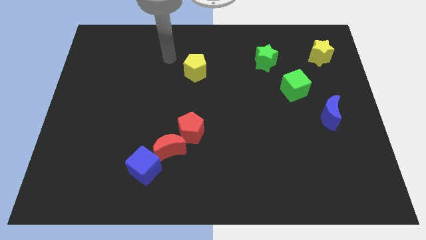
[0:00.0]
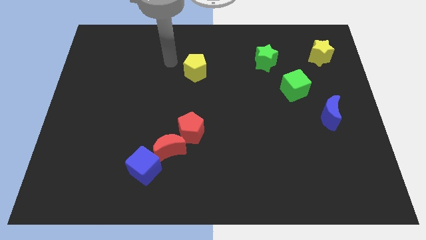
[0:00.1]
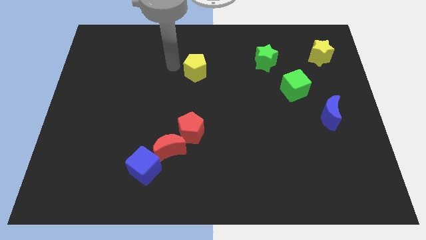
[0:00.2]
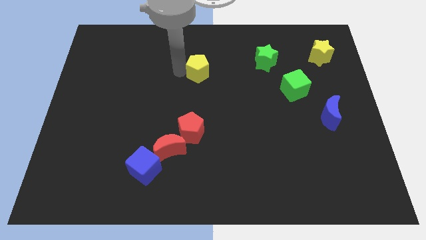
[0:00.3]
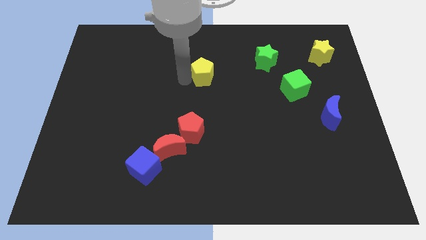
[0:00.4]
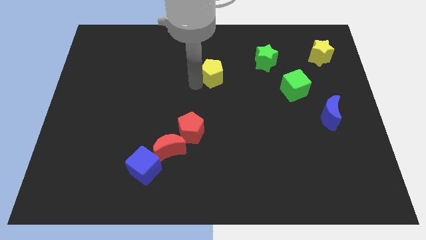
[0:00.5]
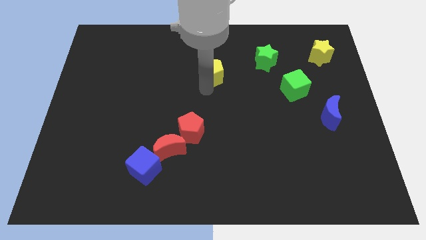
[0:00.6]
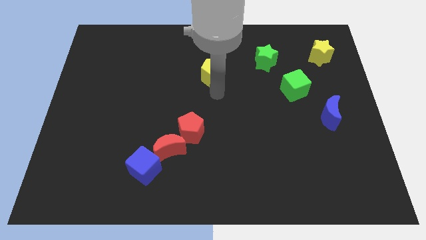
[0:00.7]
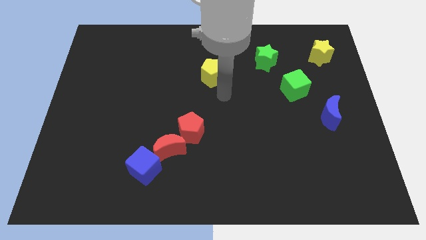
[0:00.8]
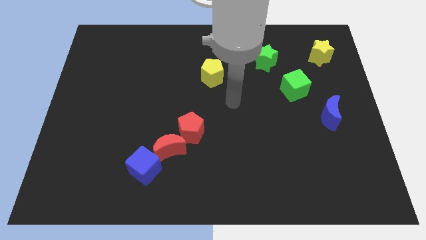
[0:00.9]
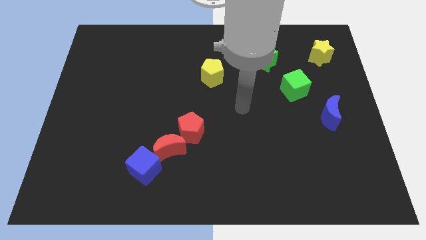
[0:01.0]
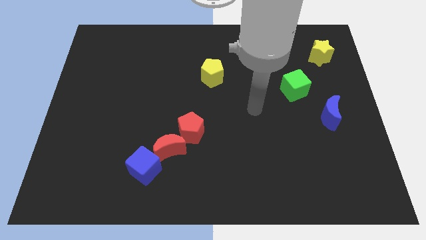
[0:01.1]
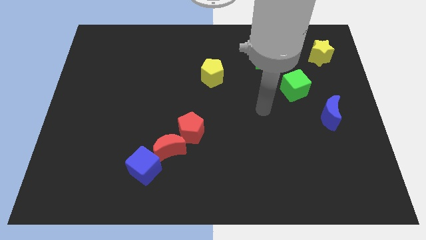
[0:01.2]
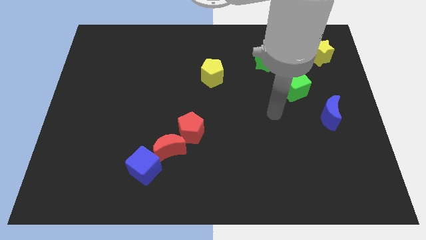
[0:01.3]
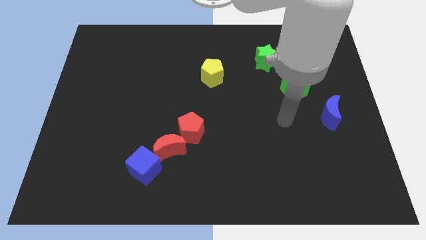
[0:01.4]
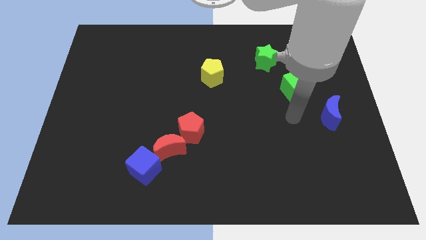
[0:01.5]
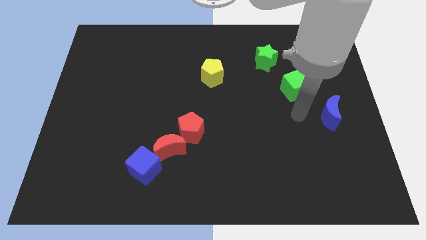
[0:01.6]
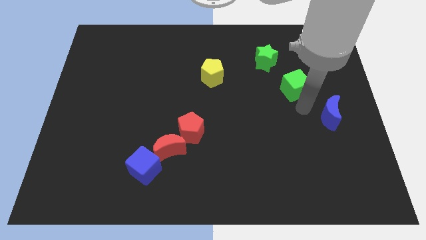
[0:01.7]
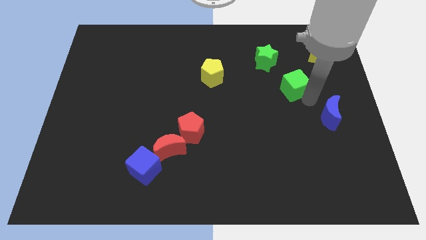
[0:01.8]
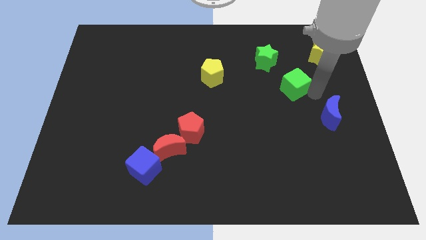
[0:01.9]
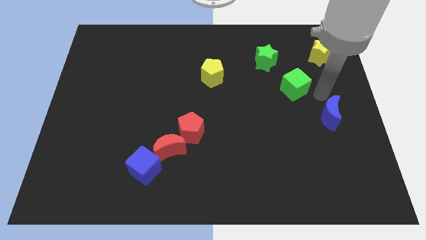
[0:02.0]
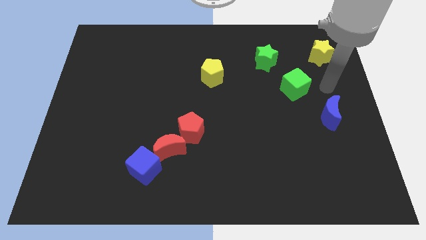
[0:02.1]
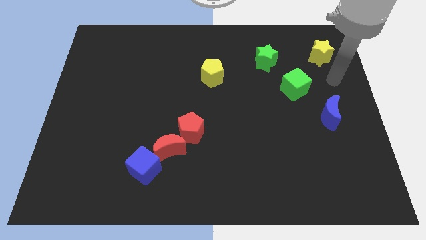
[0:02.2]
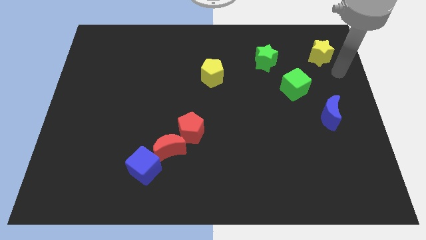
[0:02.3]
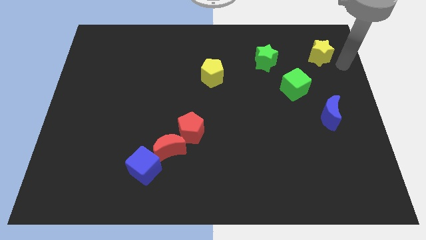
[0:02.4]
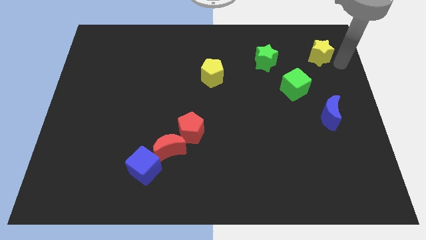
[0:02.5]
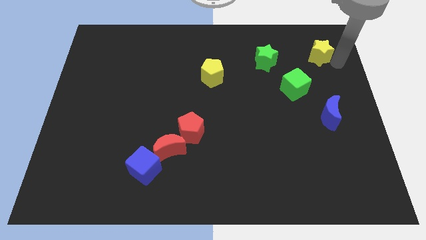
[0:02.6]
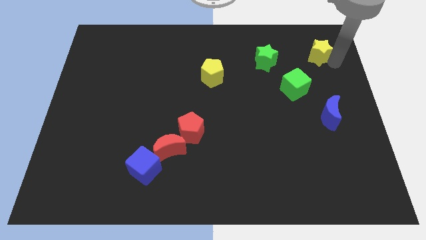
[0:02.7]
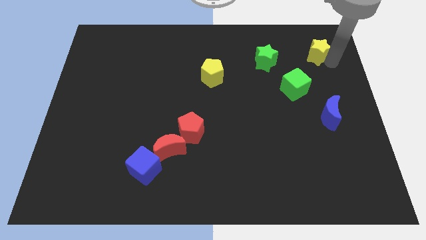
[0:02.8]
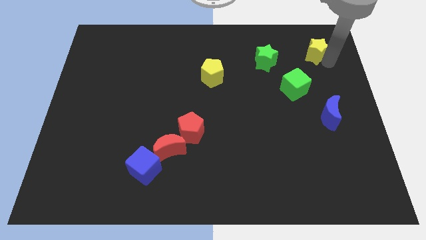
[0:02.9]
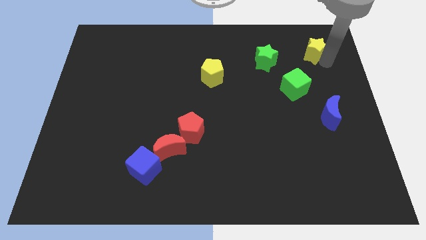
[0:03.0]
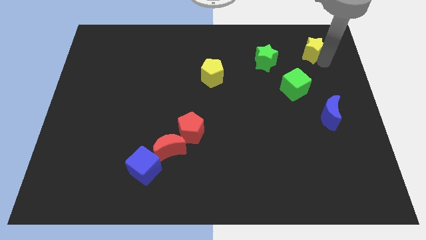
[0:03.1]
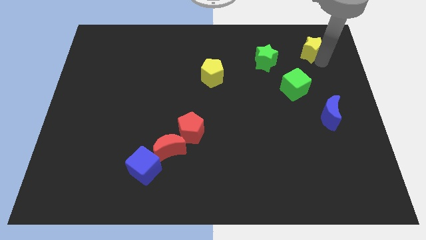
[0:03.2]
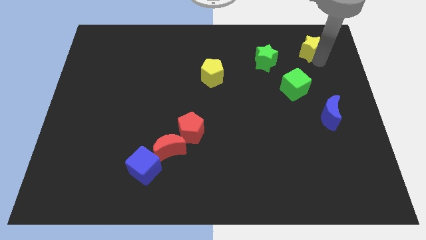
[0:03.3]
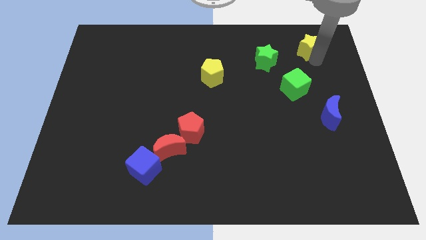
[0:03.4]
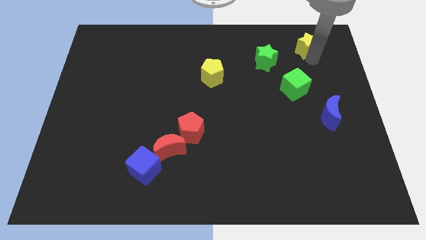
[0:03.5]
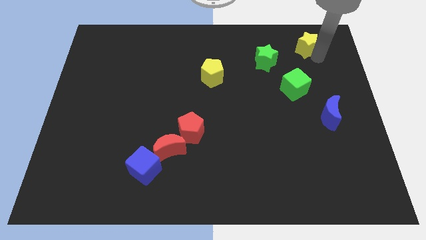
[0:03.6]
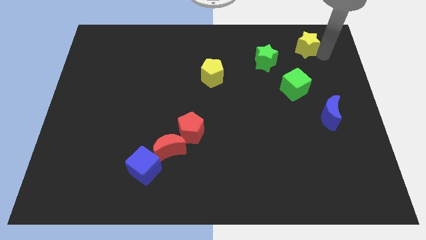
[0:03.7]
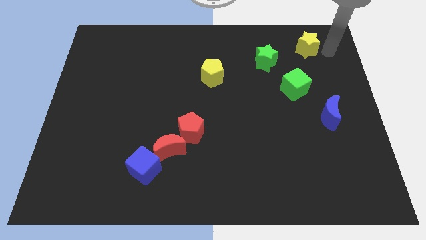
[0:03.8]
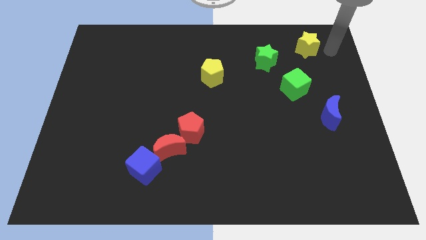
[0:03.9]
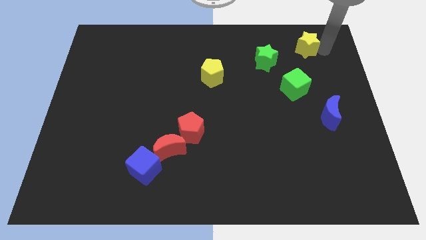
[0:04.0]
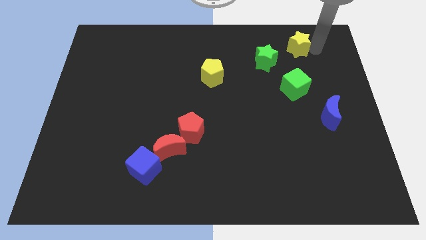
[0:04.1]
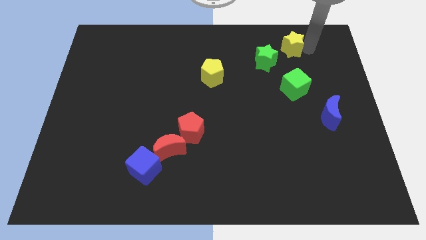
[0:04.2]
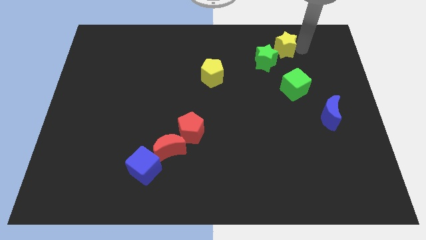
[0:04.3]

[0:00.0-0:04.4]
slightly slide the yellow star left

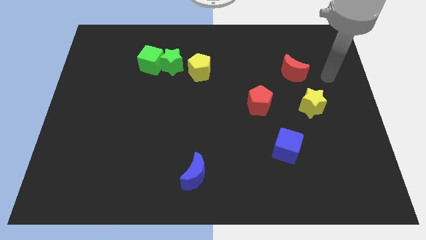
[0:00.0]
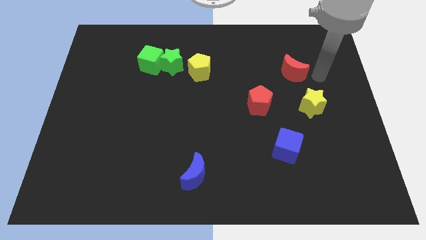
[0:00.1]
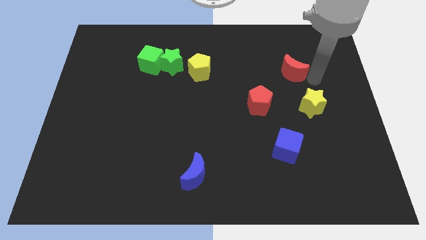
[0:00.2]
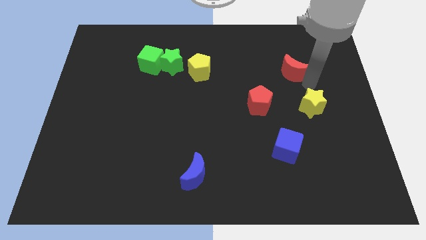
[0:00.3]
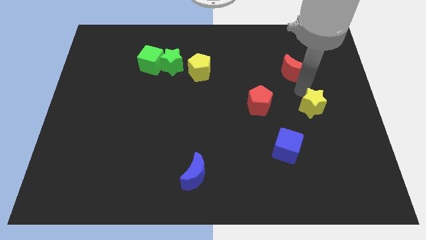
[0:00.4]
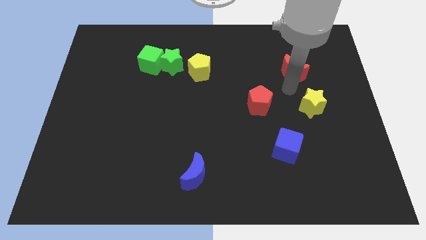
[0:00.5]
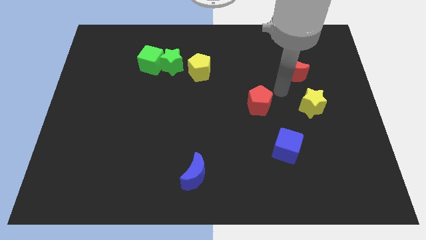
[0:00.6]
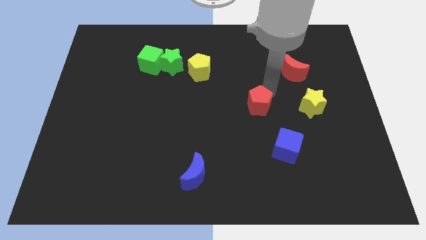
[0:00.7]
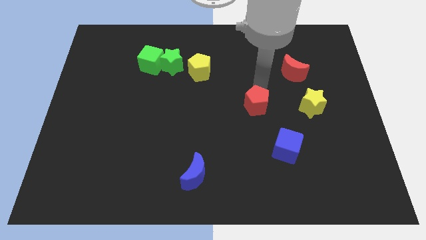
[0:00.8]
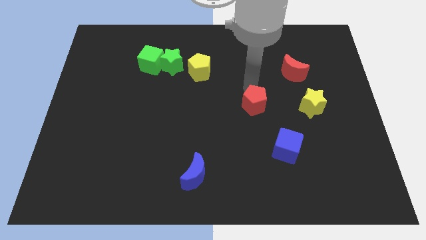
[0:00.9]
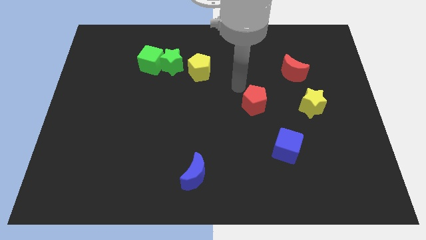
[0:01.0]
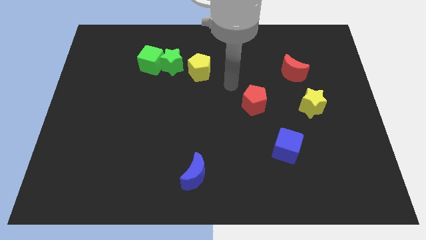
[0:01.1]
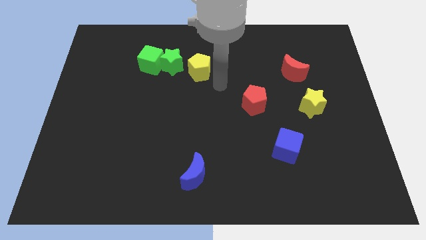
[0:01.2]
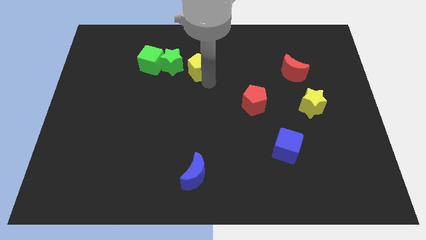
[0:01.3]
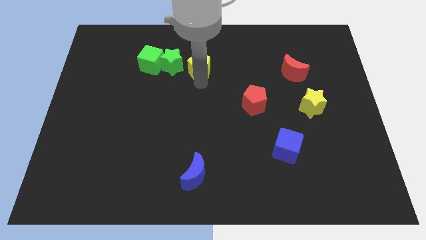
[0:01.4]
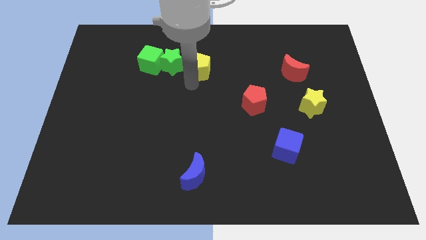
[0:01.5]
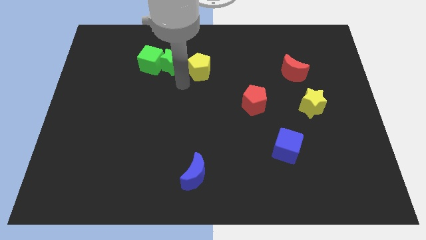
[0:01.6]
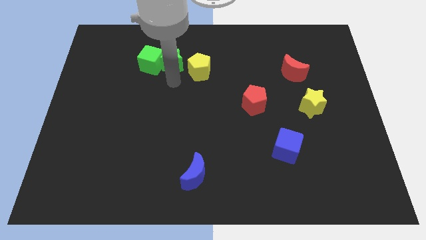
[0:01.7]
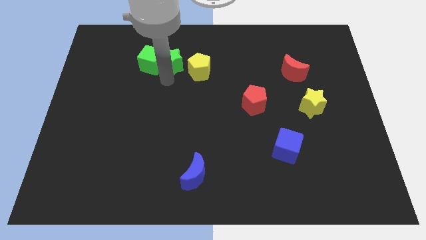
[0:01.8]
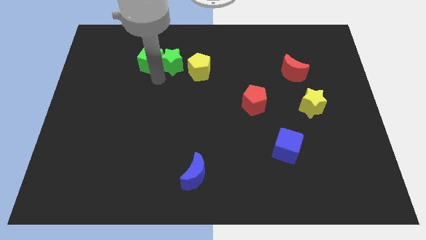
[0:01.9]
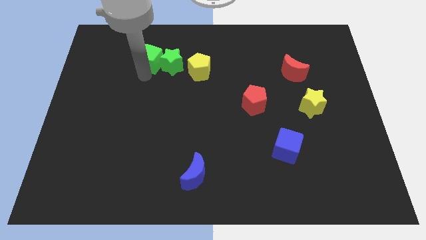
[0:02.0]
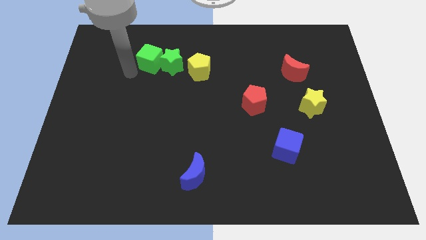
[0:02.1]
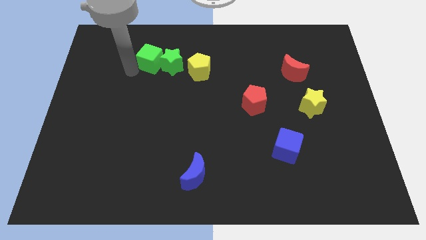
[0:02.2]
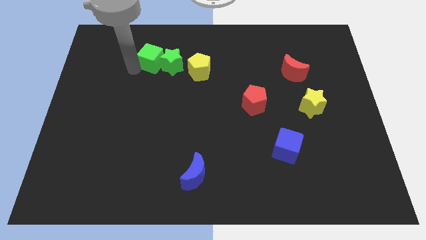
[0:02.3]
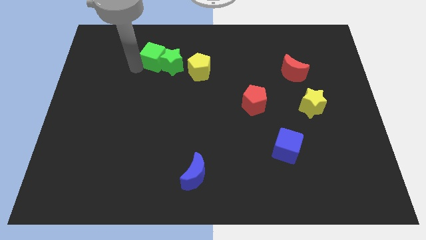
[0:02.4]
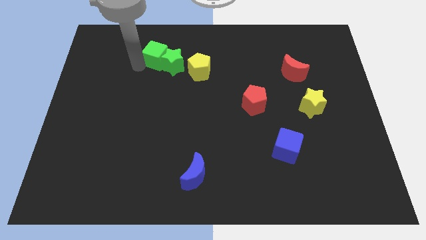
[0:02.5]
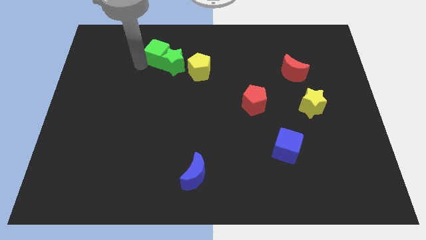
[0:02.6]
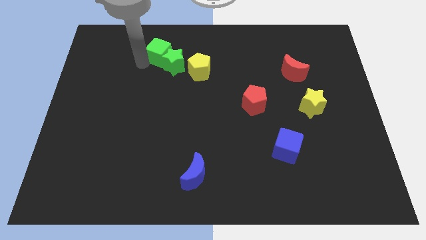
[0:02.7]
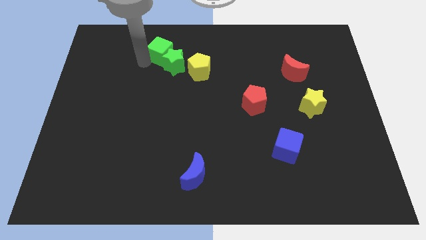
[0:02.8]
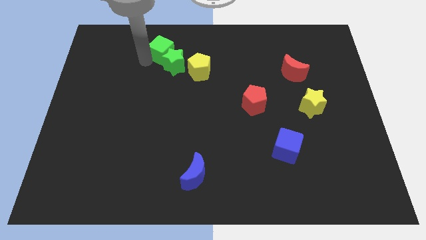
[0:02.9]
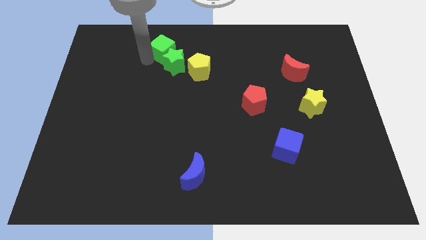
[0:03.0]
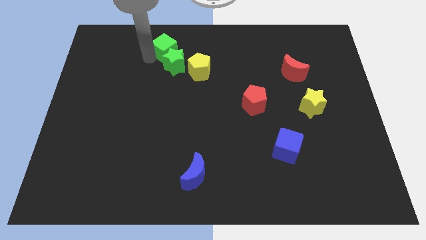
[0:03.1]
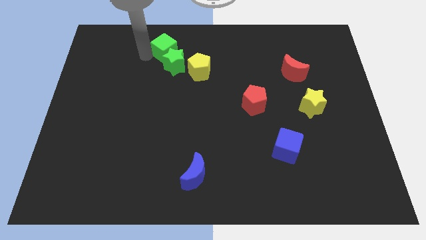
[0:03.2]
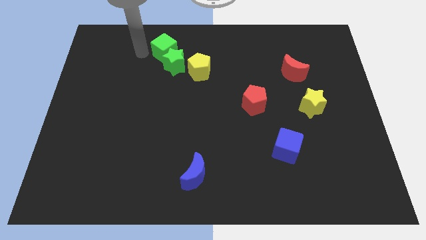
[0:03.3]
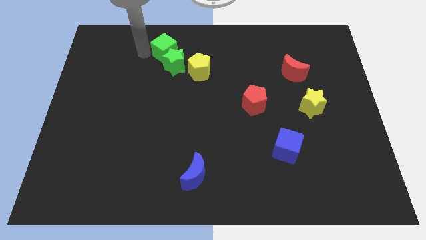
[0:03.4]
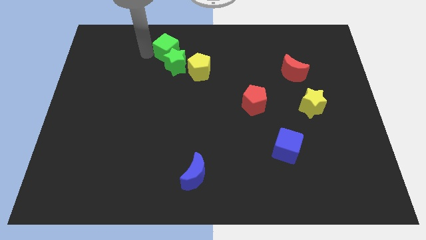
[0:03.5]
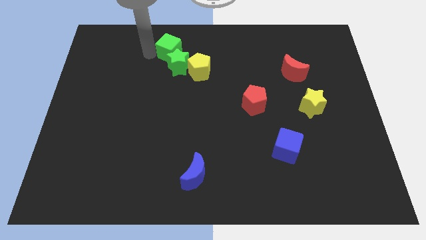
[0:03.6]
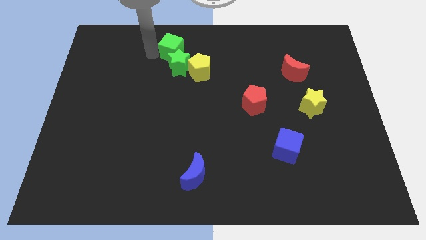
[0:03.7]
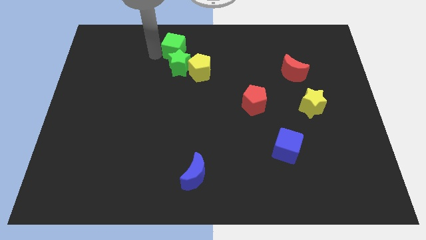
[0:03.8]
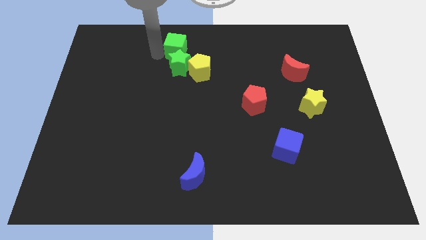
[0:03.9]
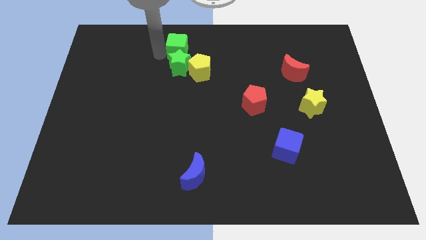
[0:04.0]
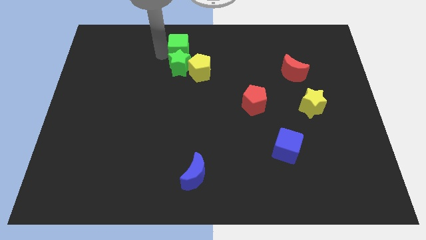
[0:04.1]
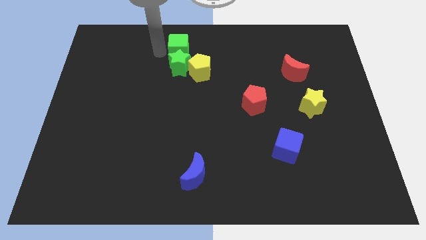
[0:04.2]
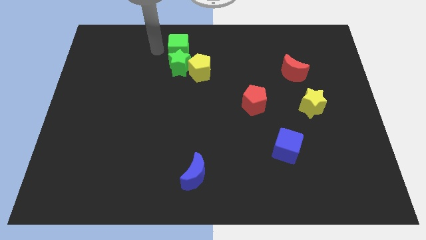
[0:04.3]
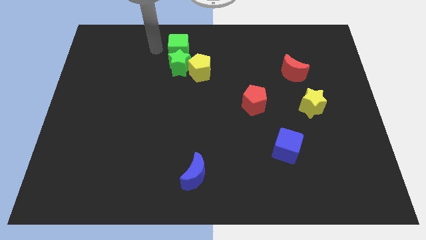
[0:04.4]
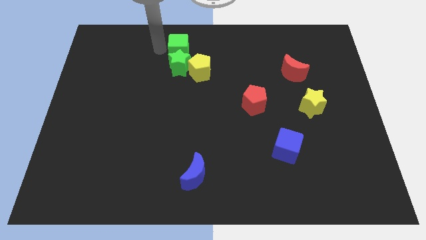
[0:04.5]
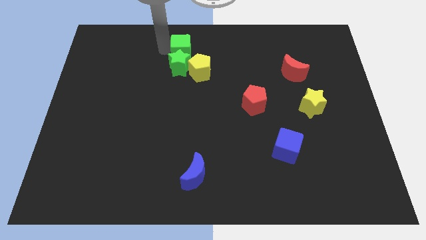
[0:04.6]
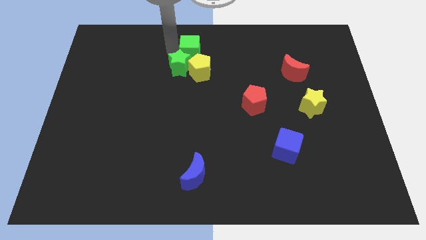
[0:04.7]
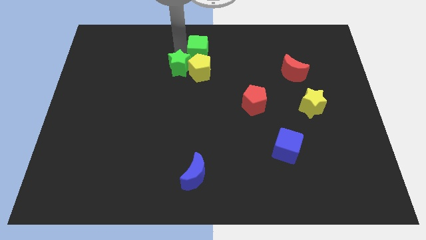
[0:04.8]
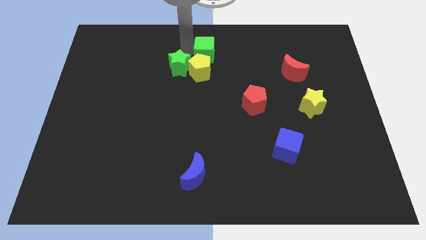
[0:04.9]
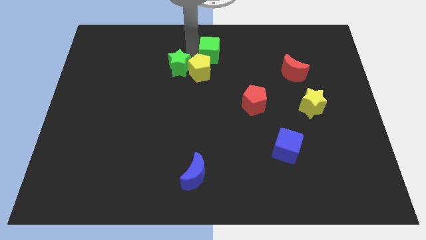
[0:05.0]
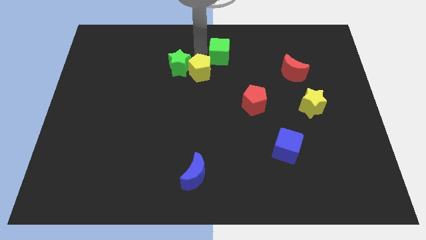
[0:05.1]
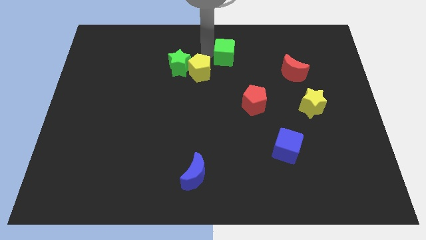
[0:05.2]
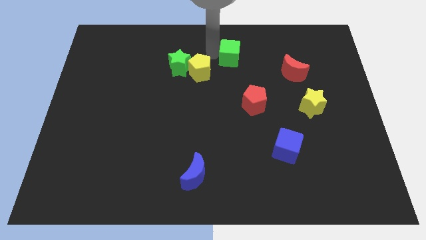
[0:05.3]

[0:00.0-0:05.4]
slide the green cube right
